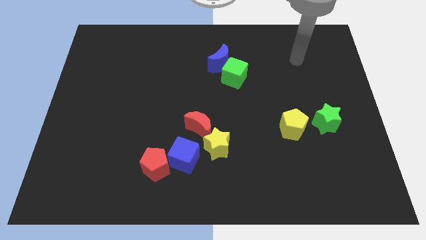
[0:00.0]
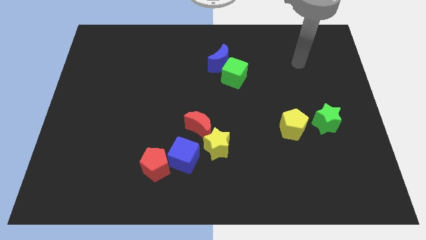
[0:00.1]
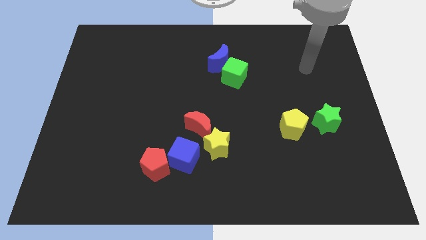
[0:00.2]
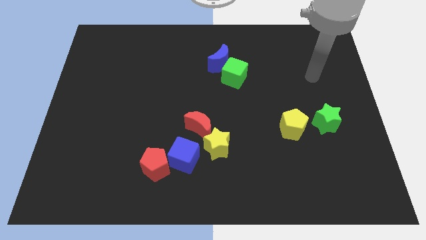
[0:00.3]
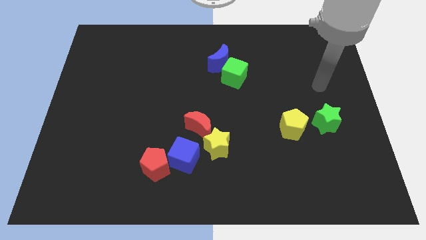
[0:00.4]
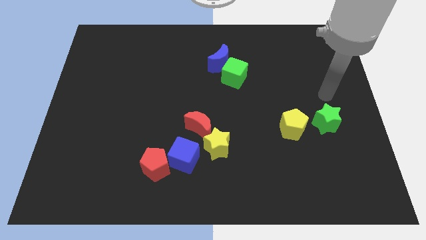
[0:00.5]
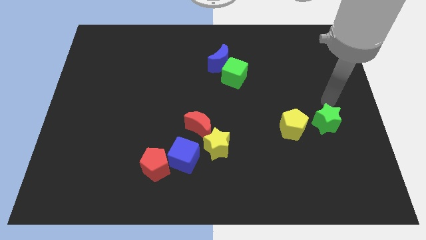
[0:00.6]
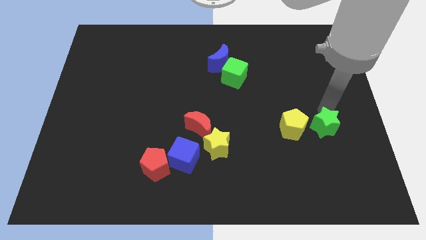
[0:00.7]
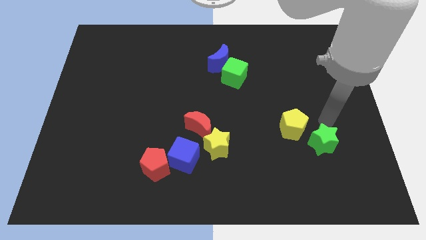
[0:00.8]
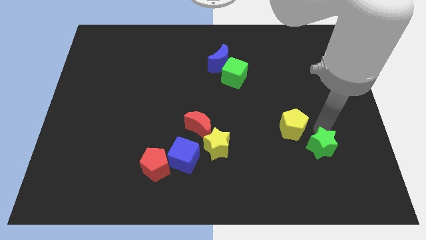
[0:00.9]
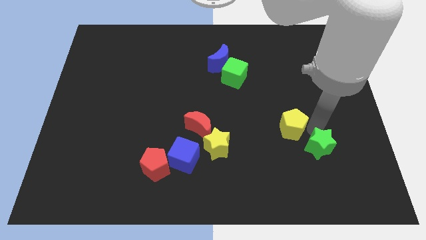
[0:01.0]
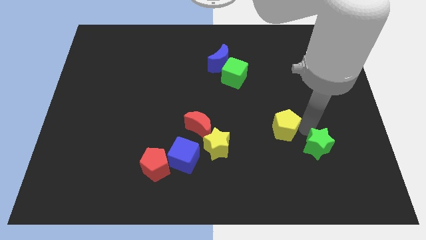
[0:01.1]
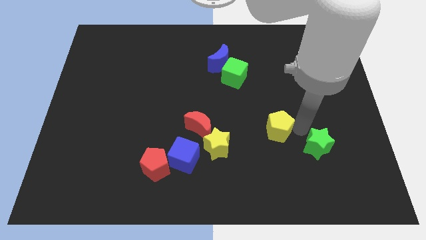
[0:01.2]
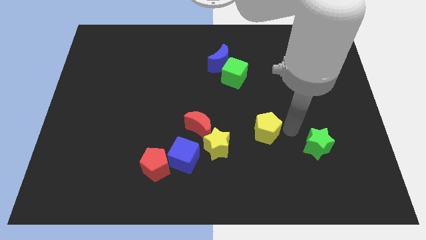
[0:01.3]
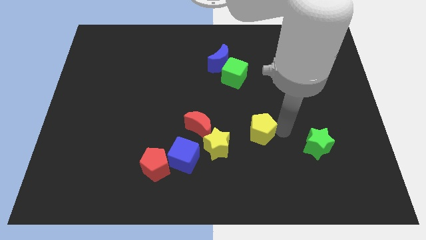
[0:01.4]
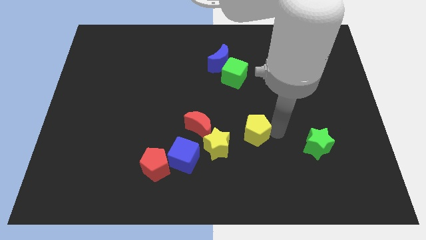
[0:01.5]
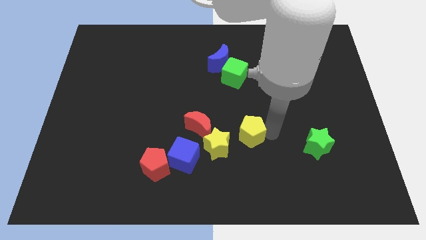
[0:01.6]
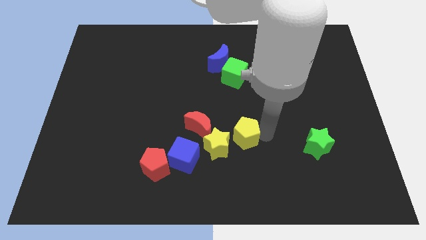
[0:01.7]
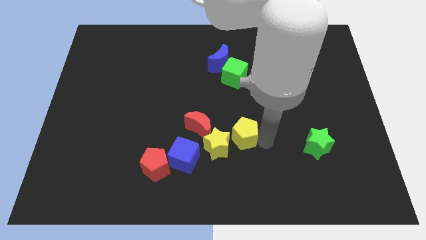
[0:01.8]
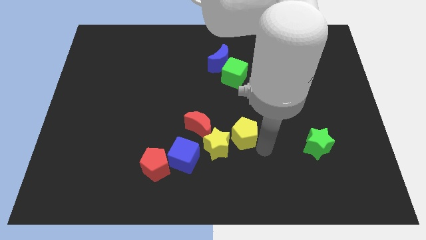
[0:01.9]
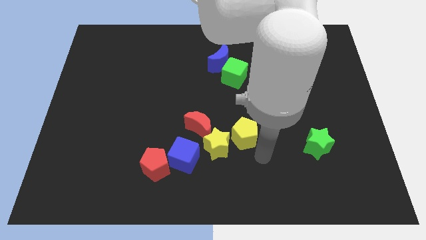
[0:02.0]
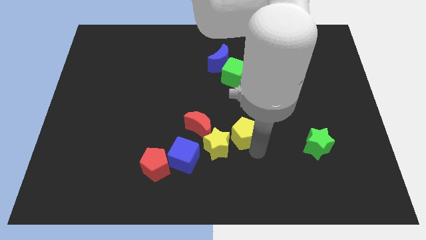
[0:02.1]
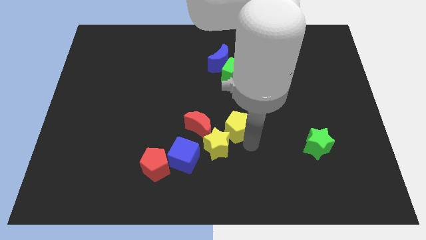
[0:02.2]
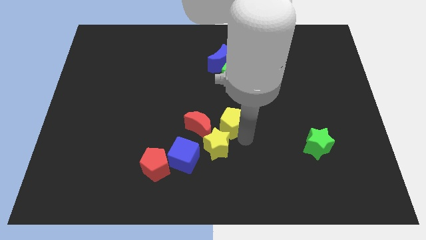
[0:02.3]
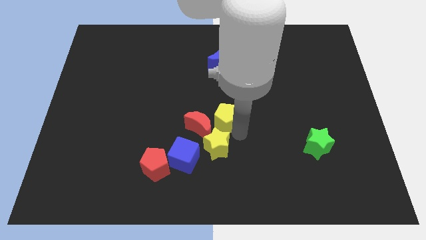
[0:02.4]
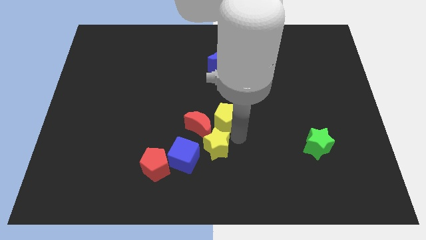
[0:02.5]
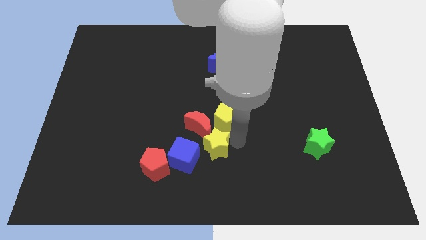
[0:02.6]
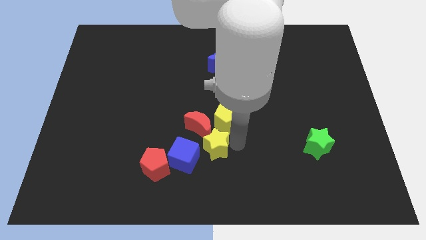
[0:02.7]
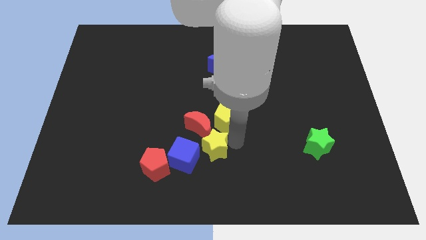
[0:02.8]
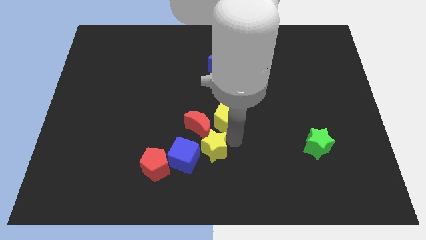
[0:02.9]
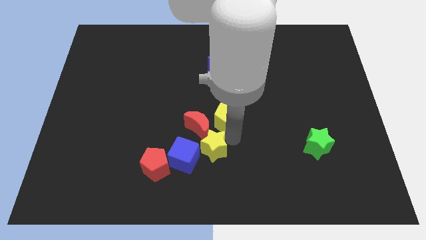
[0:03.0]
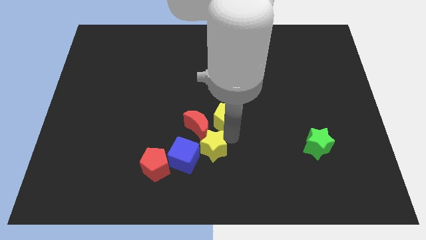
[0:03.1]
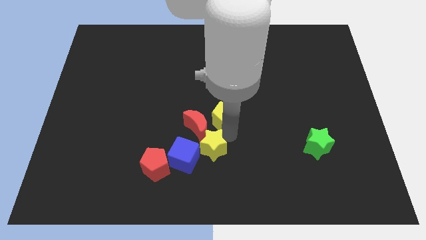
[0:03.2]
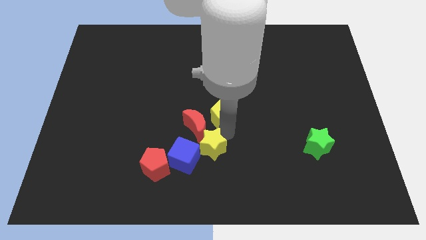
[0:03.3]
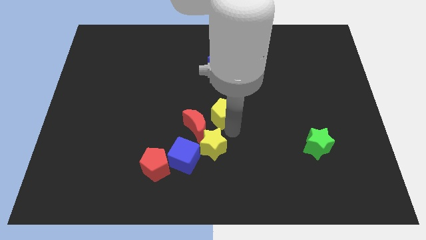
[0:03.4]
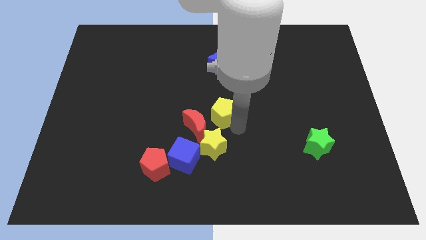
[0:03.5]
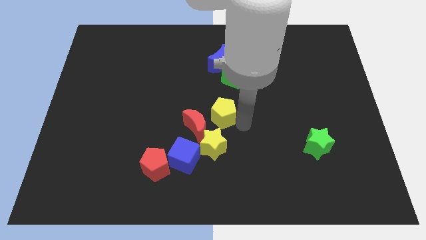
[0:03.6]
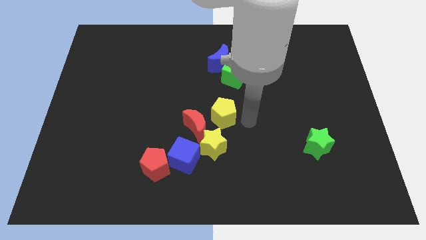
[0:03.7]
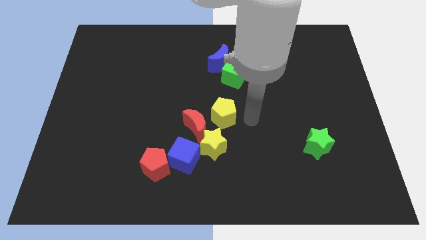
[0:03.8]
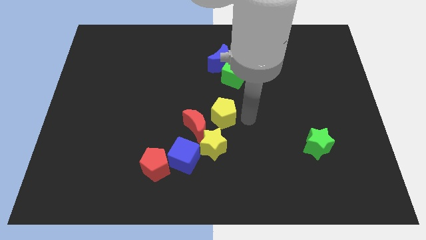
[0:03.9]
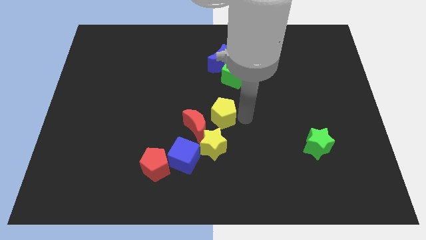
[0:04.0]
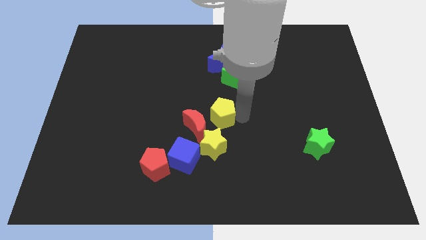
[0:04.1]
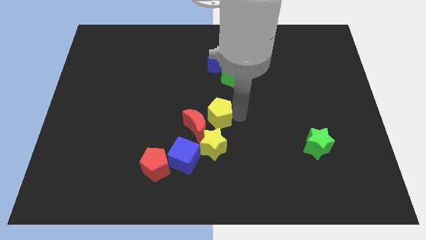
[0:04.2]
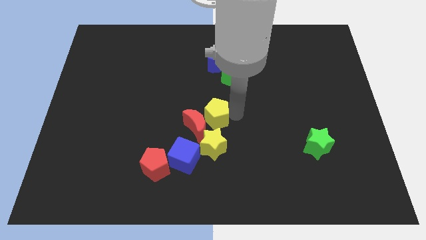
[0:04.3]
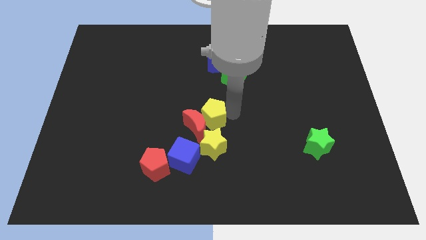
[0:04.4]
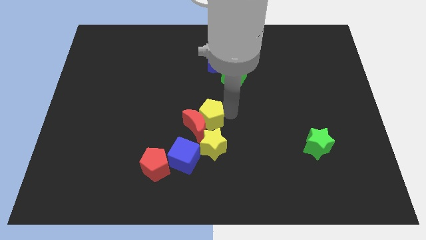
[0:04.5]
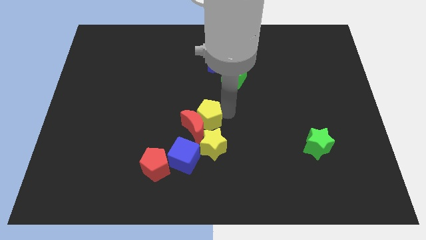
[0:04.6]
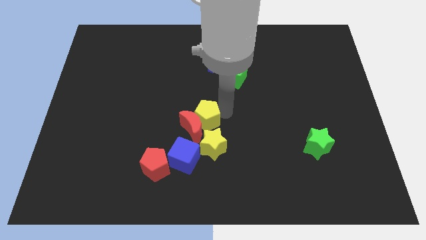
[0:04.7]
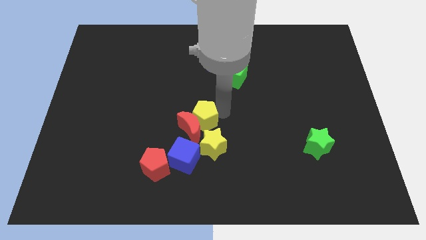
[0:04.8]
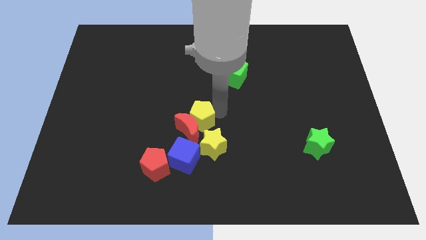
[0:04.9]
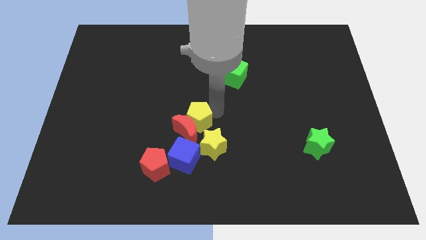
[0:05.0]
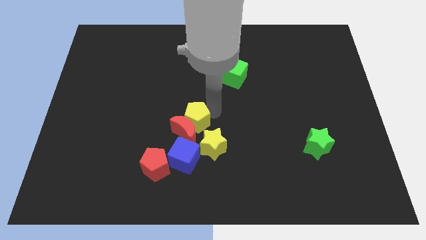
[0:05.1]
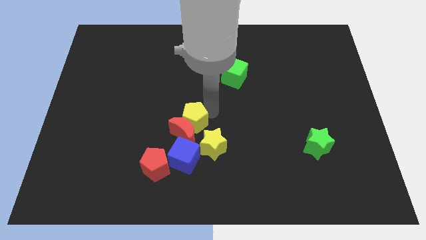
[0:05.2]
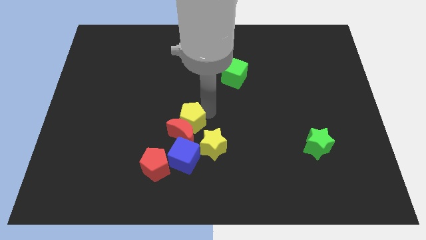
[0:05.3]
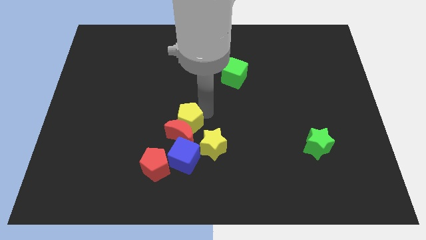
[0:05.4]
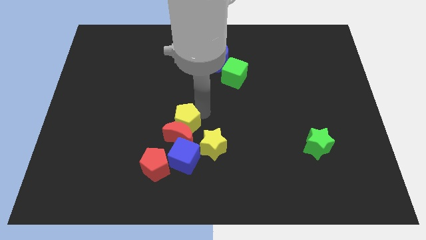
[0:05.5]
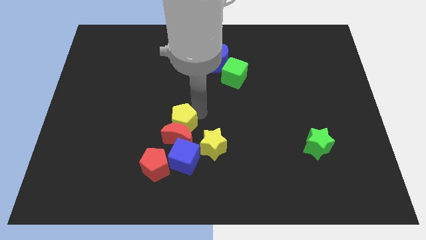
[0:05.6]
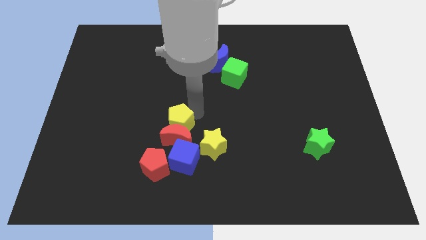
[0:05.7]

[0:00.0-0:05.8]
slide the yellow pentagon to the top of the red pentagon

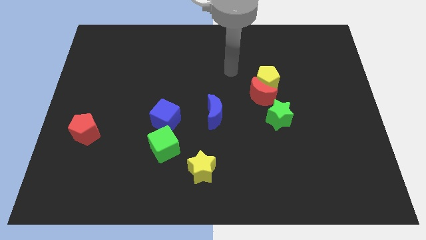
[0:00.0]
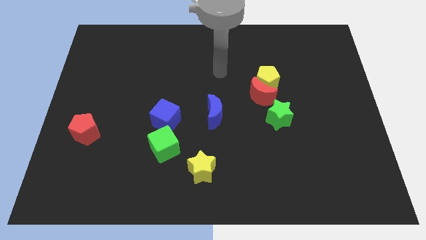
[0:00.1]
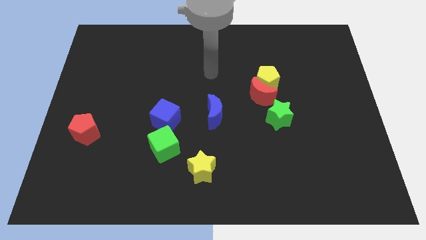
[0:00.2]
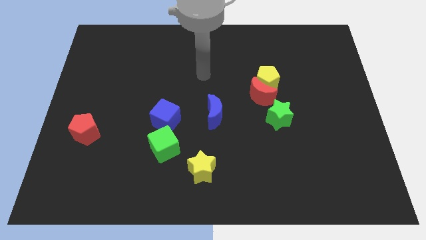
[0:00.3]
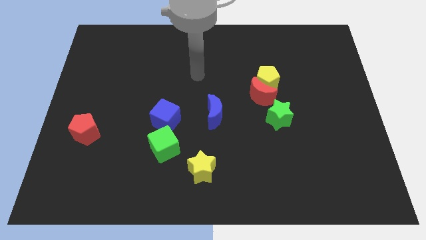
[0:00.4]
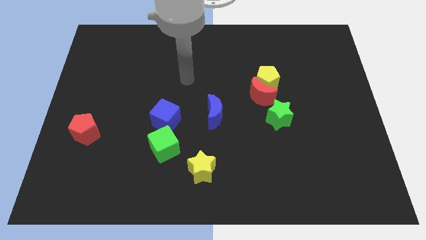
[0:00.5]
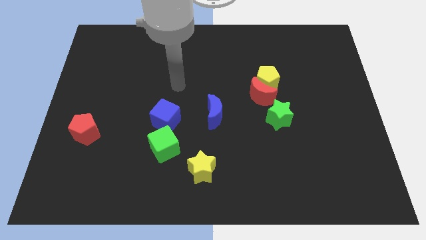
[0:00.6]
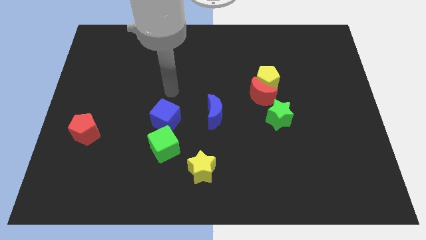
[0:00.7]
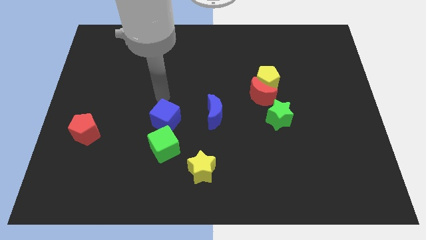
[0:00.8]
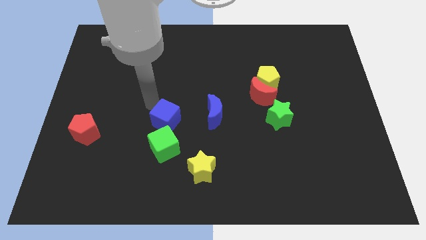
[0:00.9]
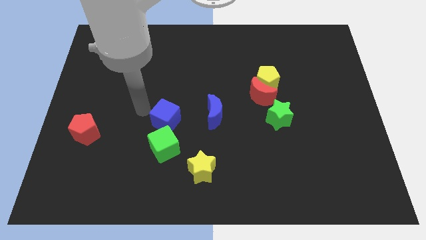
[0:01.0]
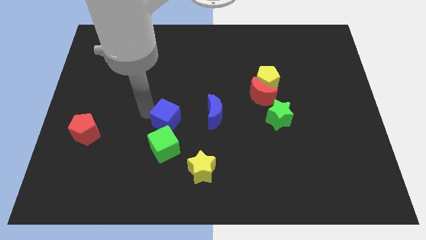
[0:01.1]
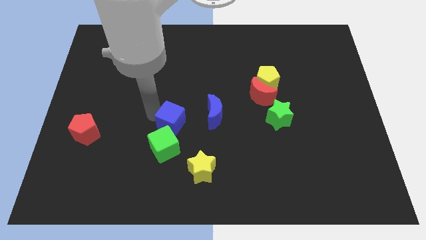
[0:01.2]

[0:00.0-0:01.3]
move the blue cube to the top right of the green cube

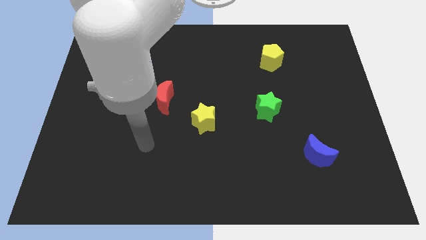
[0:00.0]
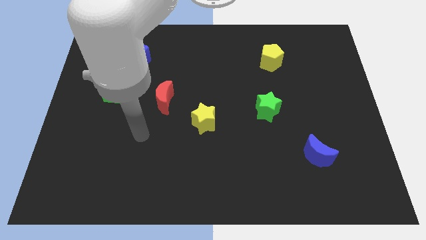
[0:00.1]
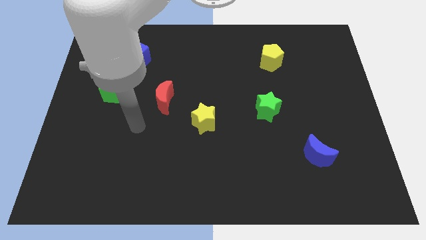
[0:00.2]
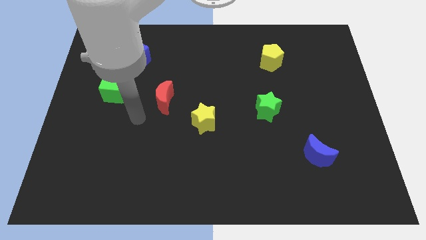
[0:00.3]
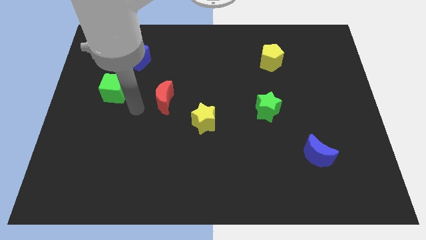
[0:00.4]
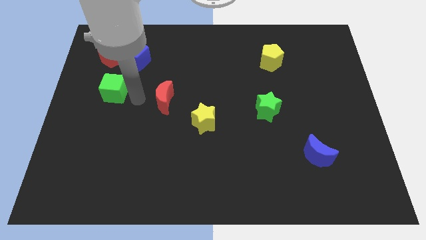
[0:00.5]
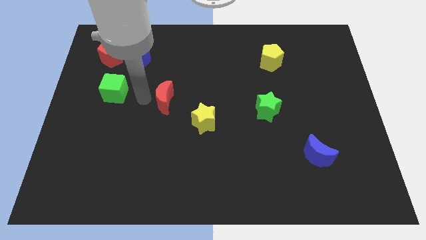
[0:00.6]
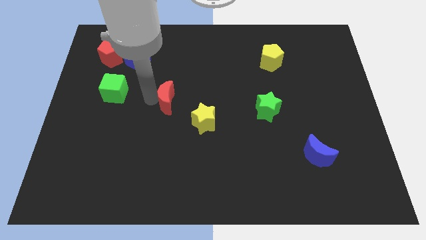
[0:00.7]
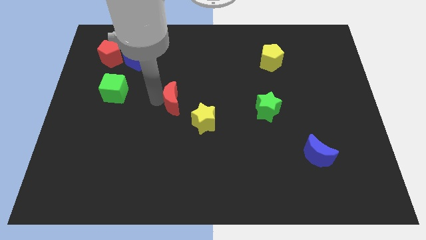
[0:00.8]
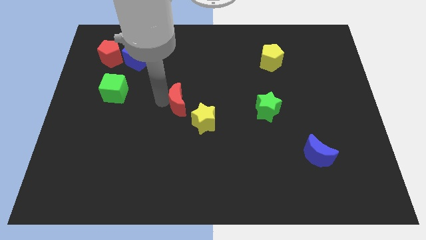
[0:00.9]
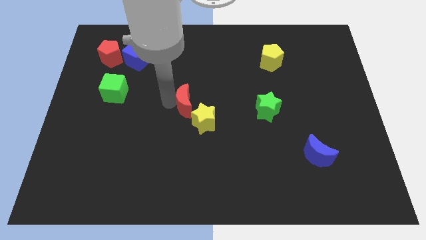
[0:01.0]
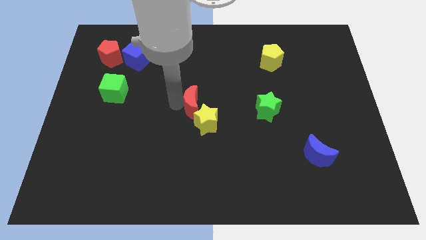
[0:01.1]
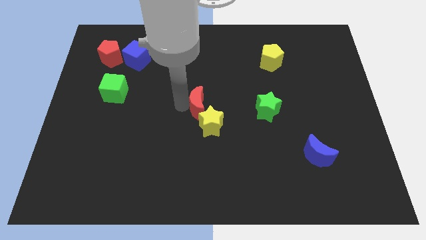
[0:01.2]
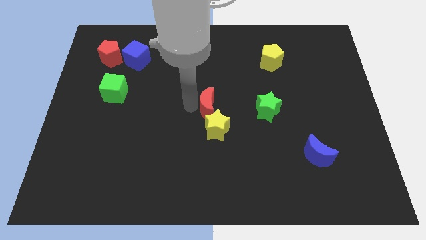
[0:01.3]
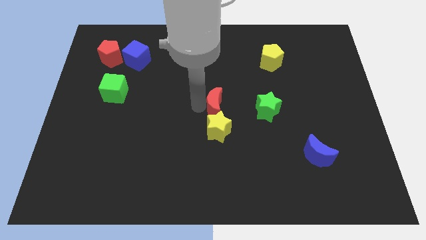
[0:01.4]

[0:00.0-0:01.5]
move the red moon diagonally up and to the right of the yellow star
